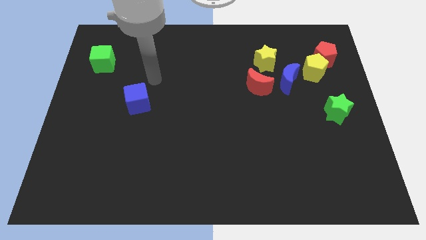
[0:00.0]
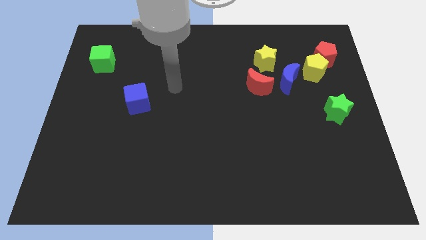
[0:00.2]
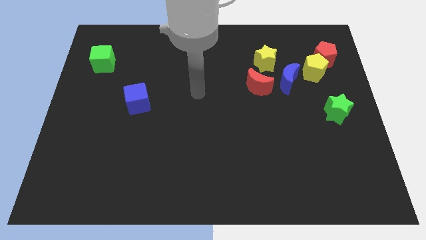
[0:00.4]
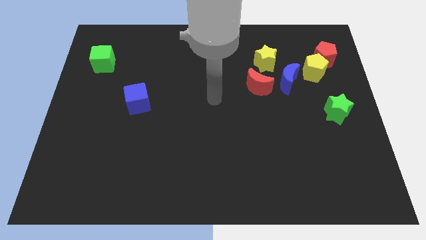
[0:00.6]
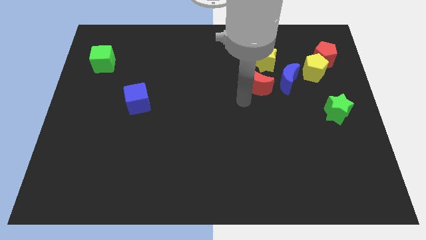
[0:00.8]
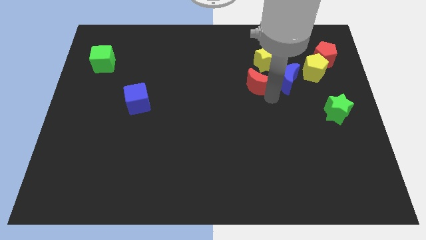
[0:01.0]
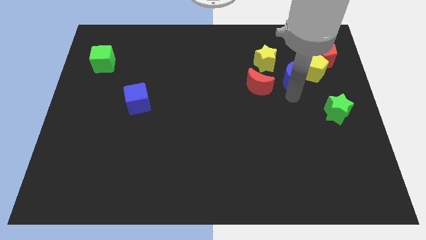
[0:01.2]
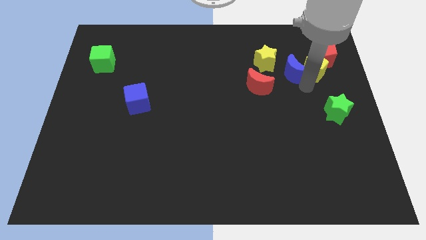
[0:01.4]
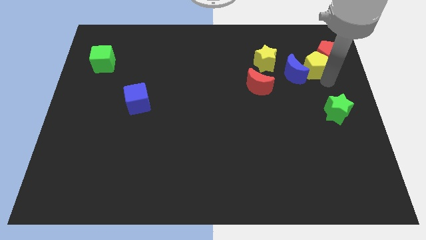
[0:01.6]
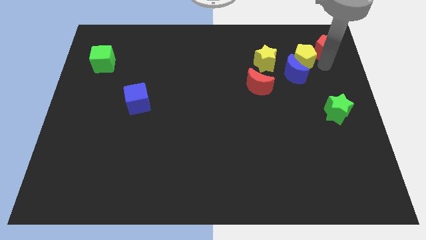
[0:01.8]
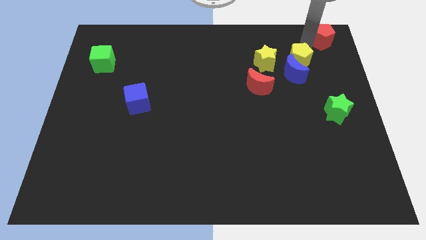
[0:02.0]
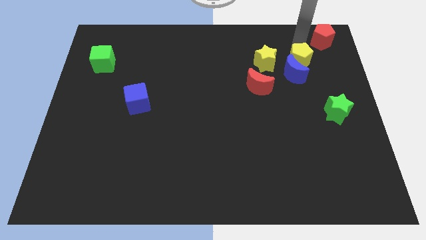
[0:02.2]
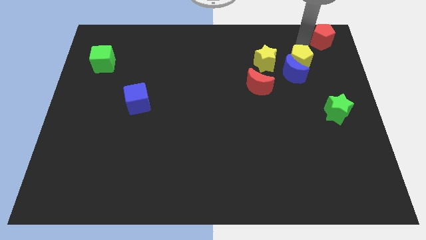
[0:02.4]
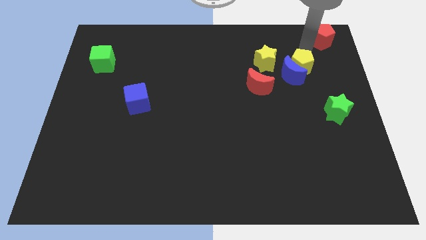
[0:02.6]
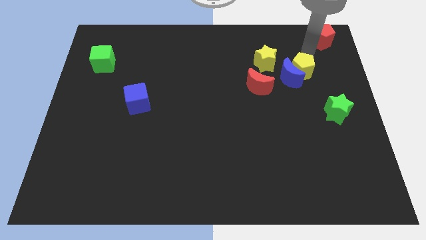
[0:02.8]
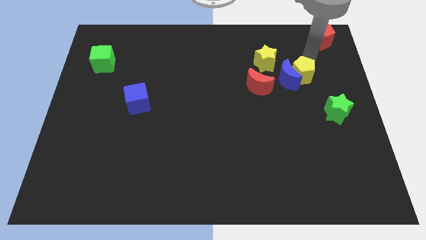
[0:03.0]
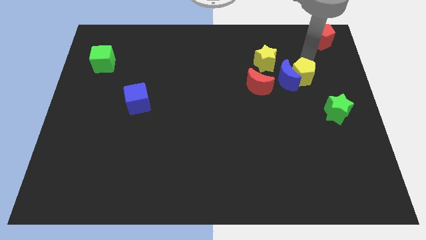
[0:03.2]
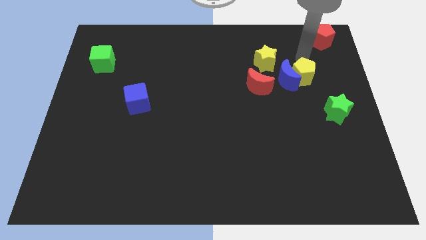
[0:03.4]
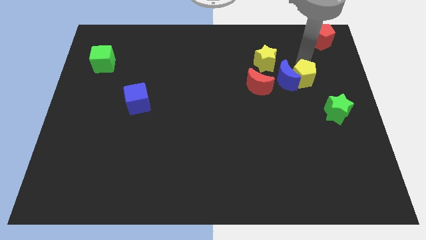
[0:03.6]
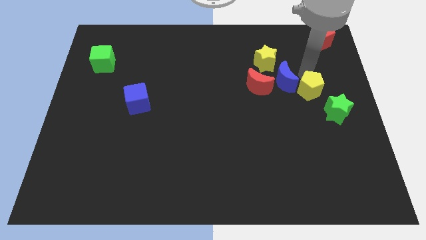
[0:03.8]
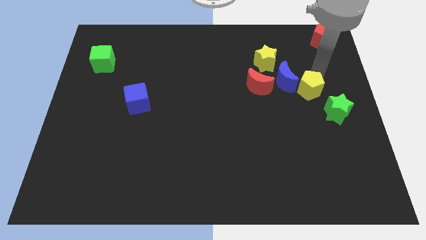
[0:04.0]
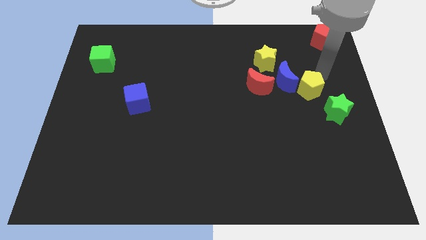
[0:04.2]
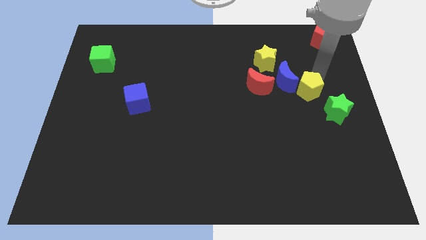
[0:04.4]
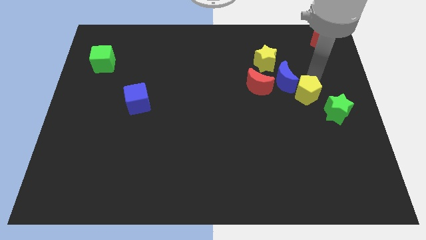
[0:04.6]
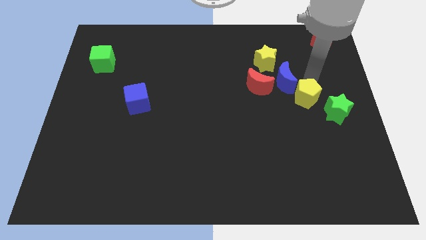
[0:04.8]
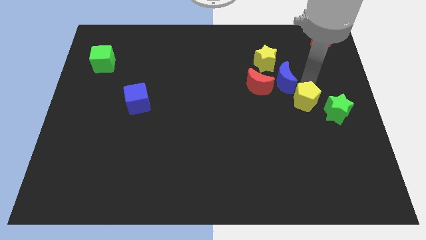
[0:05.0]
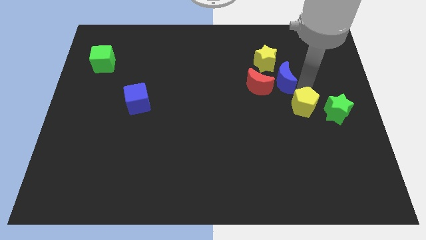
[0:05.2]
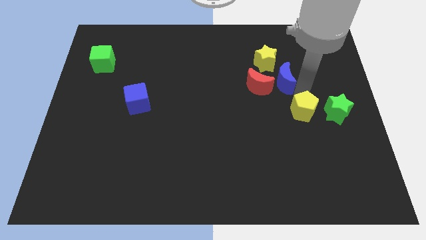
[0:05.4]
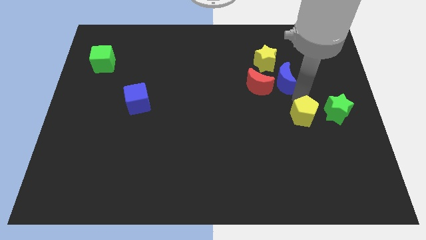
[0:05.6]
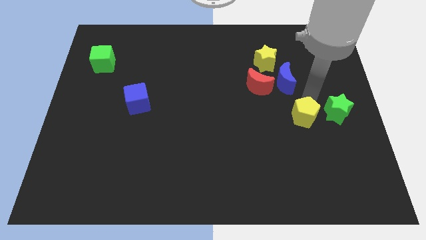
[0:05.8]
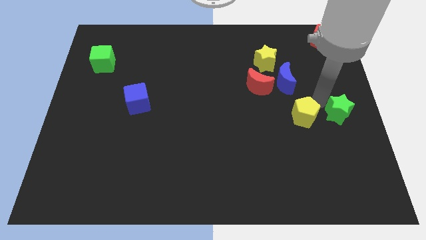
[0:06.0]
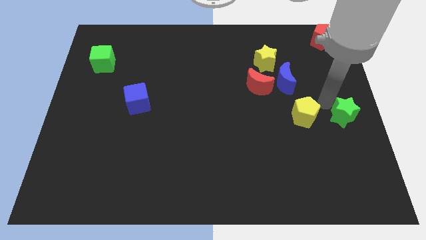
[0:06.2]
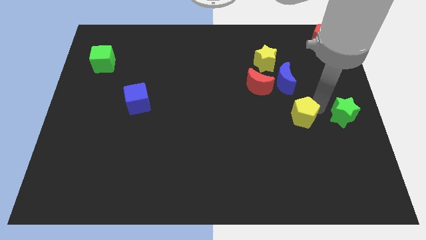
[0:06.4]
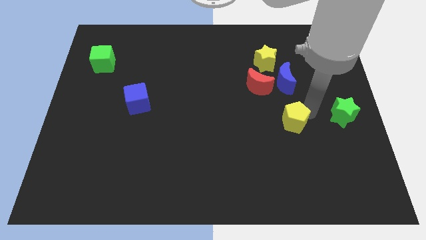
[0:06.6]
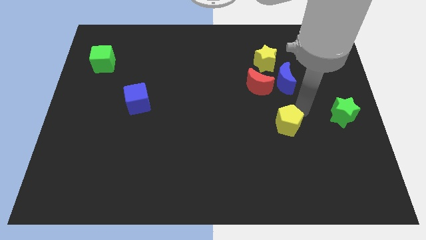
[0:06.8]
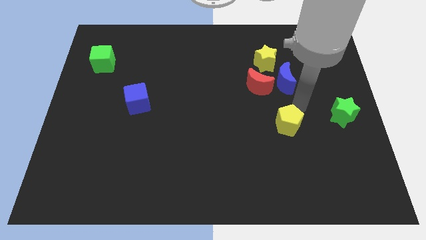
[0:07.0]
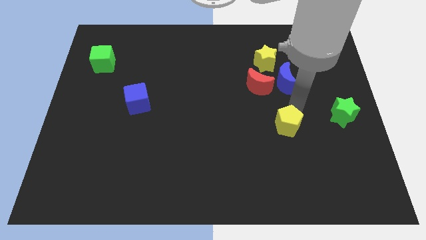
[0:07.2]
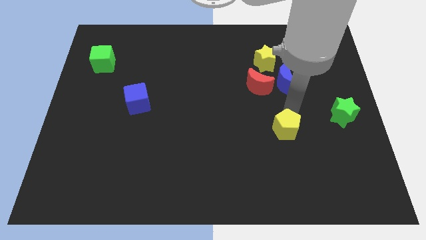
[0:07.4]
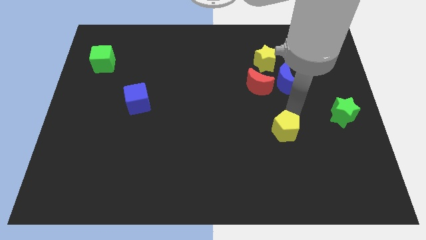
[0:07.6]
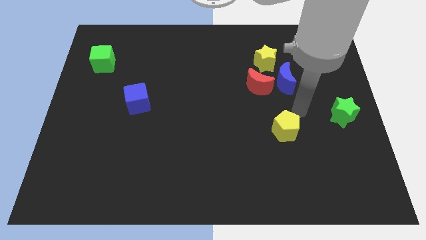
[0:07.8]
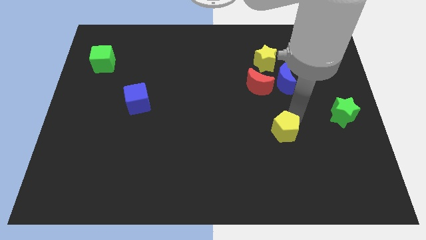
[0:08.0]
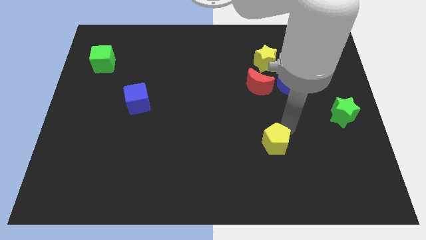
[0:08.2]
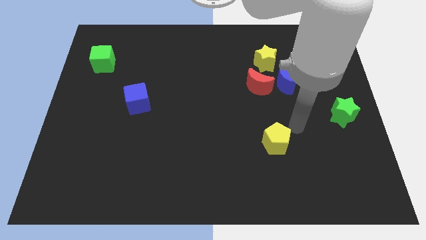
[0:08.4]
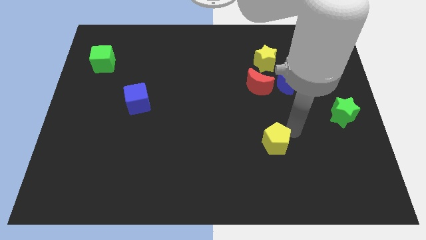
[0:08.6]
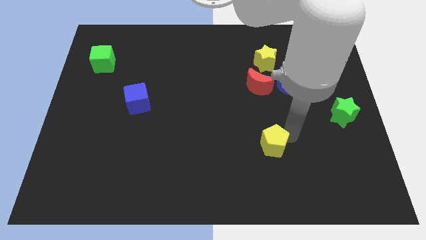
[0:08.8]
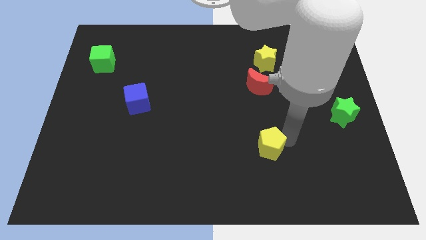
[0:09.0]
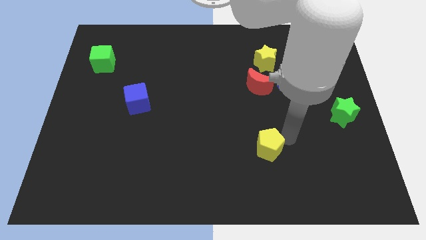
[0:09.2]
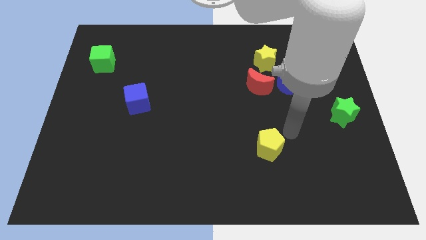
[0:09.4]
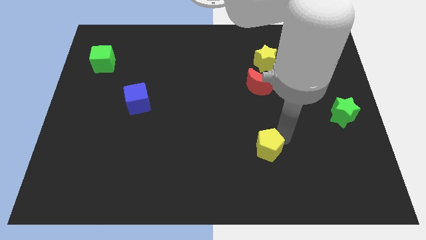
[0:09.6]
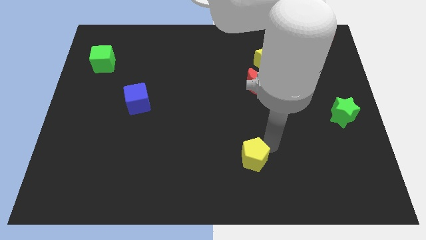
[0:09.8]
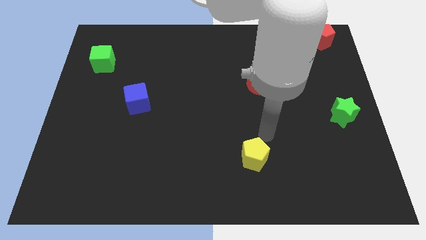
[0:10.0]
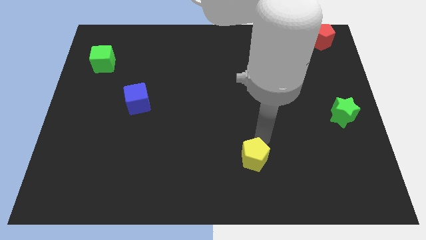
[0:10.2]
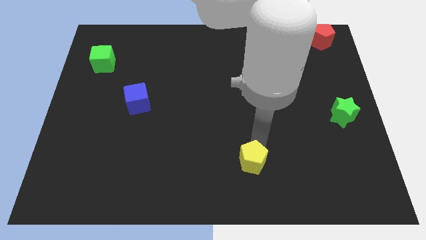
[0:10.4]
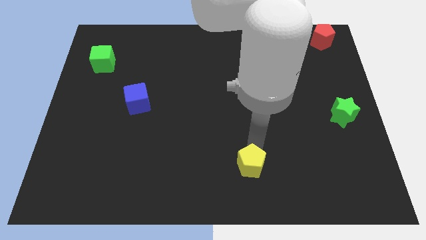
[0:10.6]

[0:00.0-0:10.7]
move the yellow pentagon to the bottom
